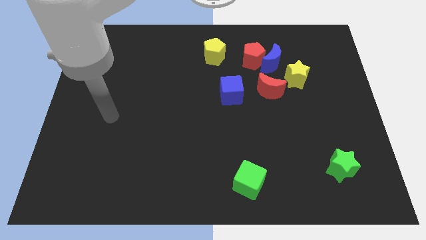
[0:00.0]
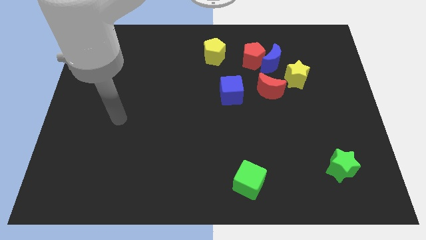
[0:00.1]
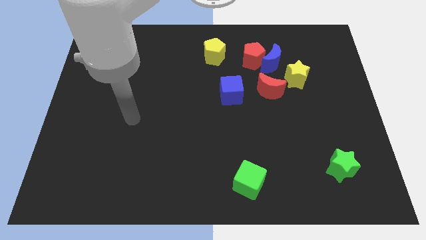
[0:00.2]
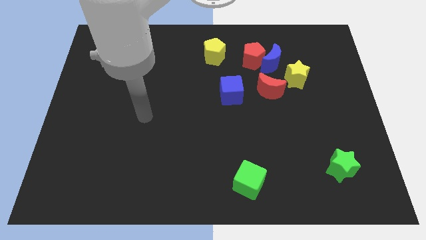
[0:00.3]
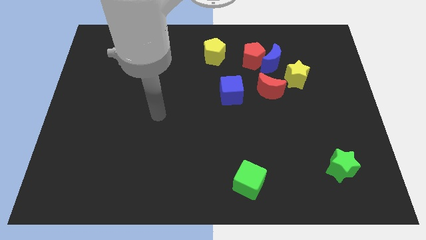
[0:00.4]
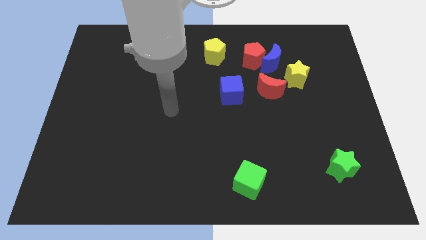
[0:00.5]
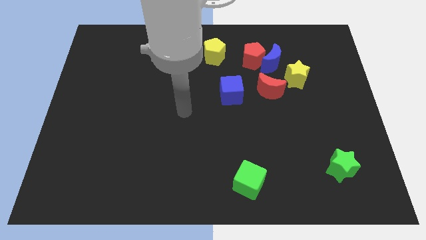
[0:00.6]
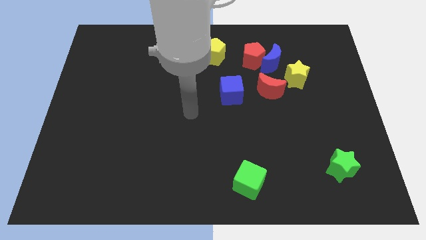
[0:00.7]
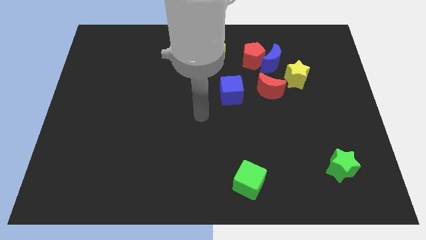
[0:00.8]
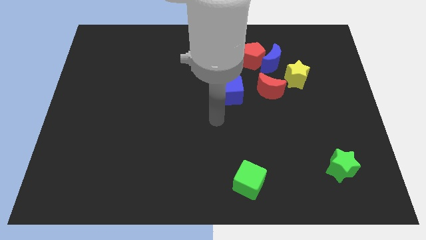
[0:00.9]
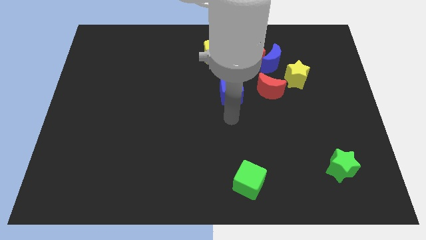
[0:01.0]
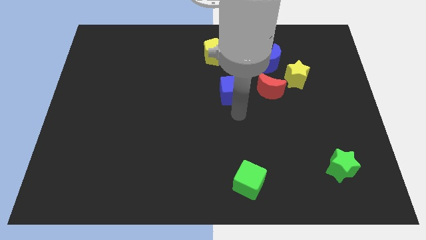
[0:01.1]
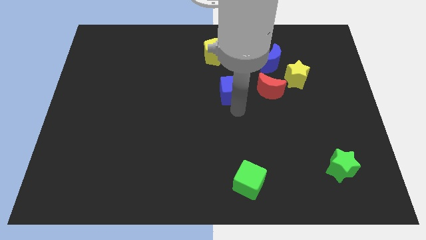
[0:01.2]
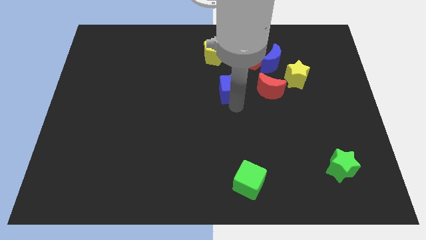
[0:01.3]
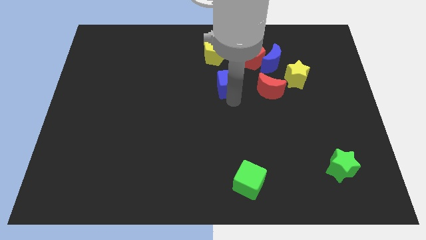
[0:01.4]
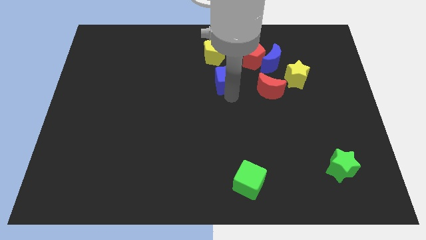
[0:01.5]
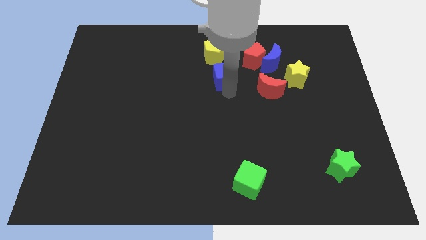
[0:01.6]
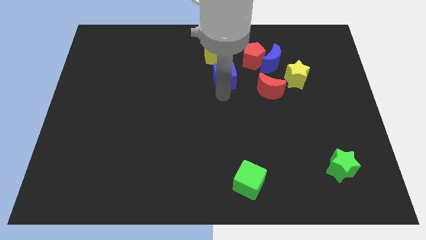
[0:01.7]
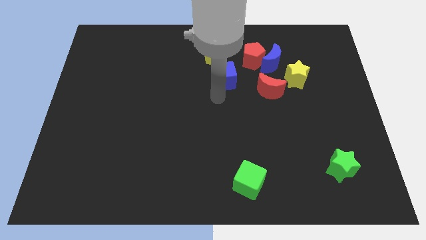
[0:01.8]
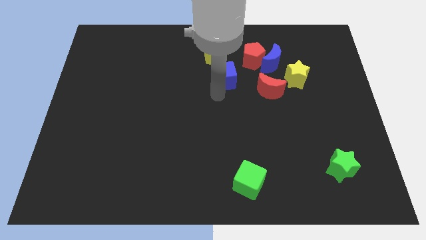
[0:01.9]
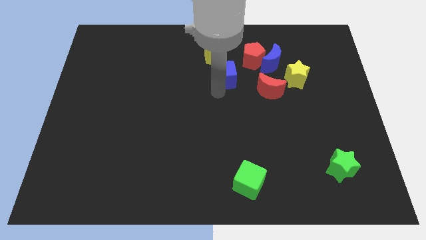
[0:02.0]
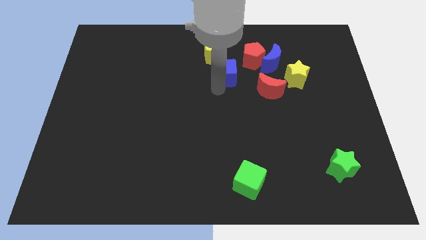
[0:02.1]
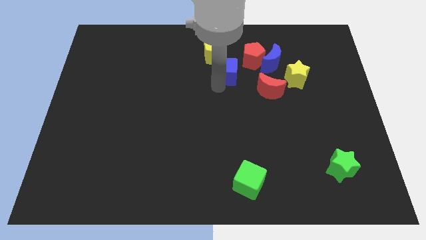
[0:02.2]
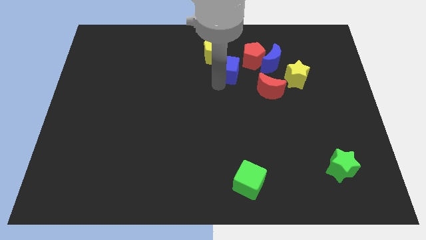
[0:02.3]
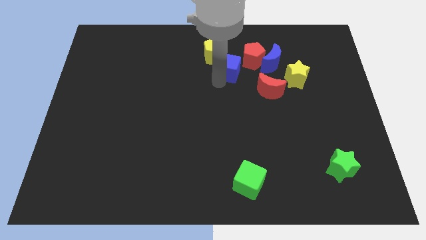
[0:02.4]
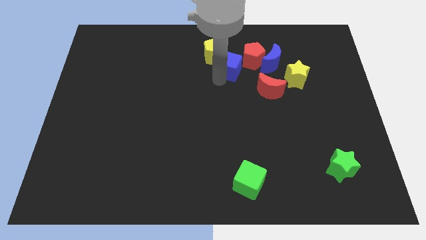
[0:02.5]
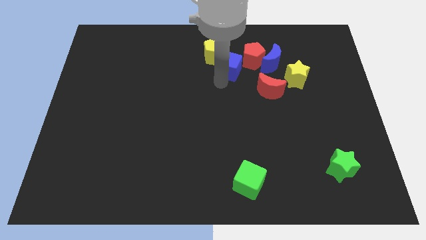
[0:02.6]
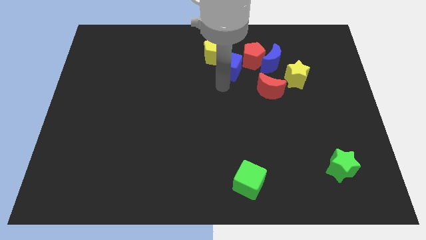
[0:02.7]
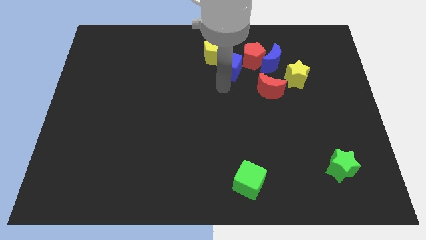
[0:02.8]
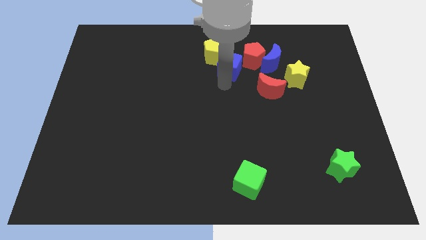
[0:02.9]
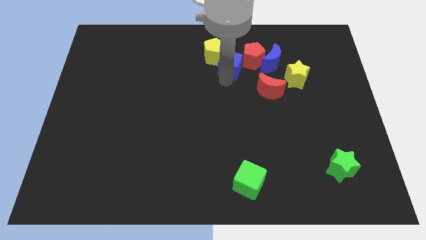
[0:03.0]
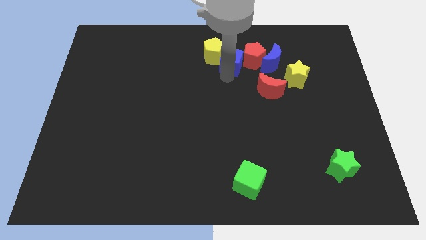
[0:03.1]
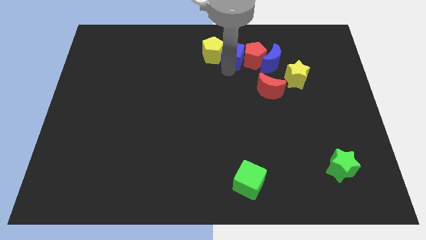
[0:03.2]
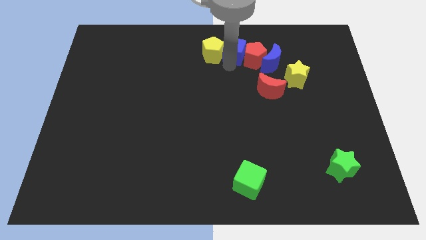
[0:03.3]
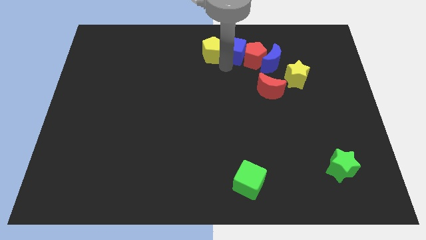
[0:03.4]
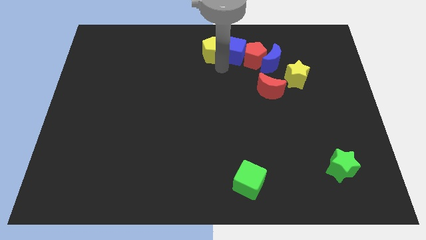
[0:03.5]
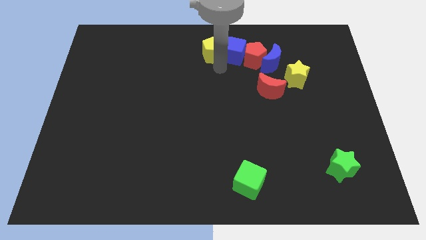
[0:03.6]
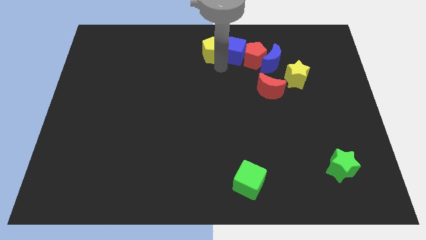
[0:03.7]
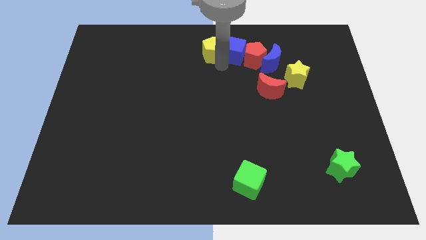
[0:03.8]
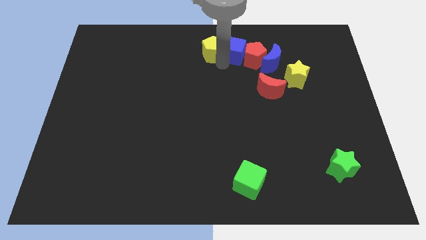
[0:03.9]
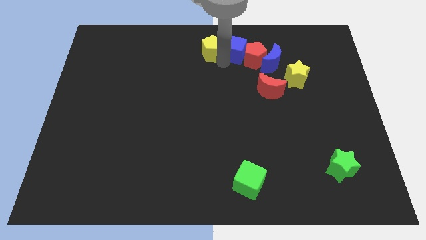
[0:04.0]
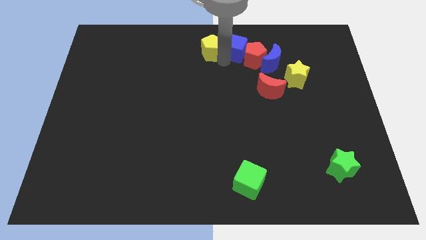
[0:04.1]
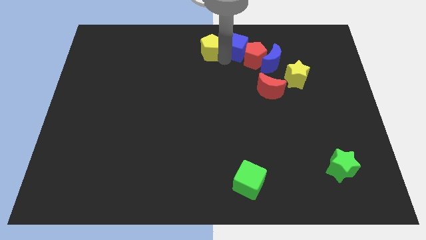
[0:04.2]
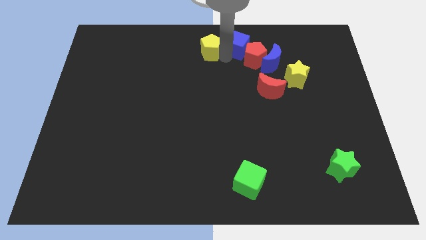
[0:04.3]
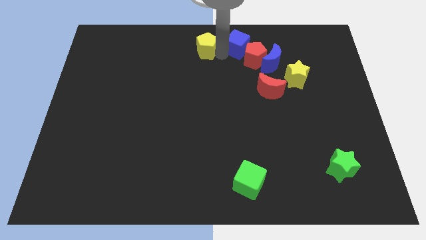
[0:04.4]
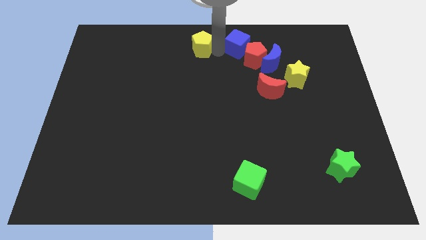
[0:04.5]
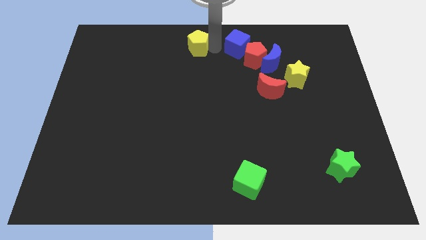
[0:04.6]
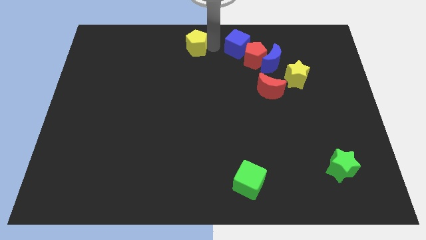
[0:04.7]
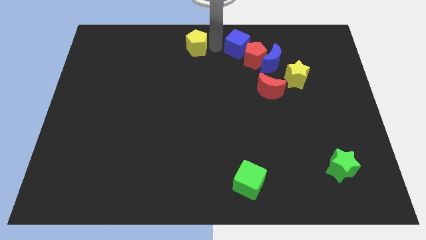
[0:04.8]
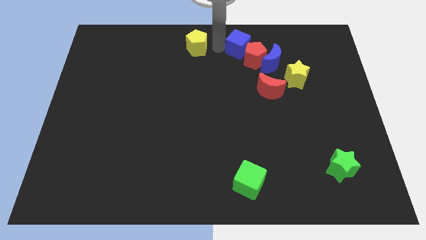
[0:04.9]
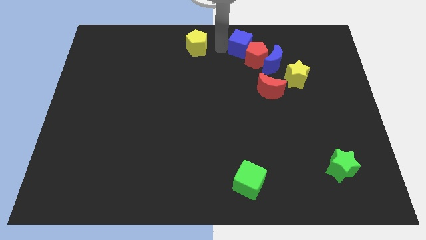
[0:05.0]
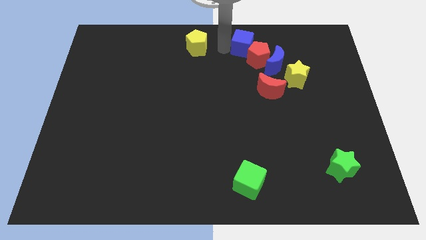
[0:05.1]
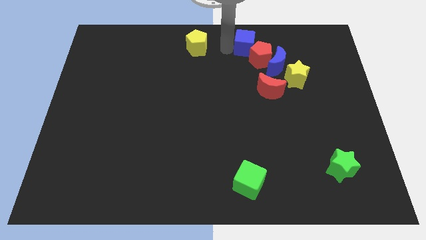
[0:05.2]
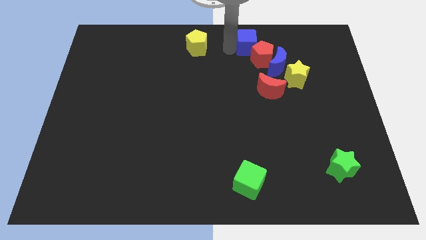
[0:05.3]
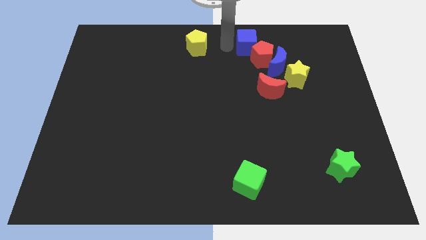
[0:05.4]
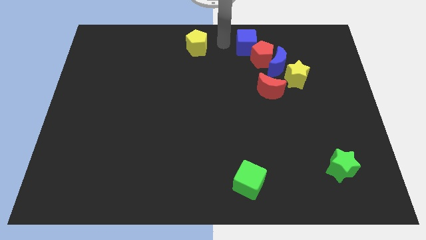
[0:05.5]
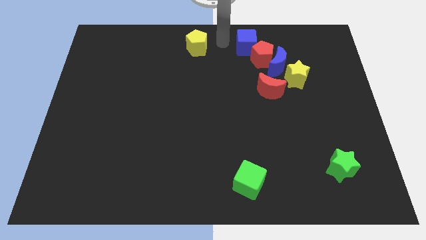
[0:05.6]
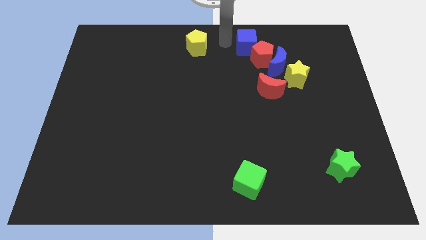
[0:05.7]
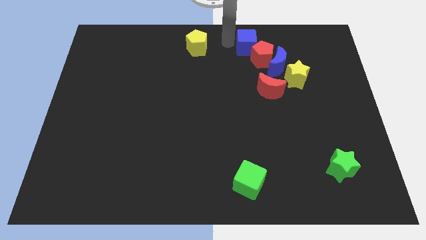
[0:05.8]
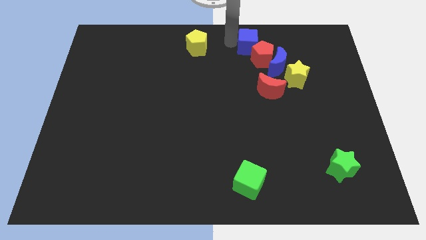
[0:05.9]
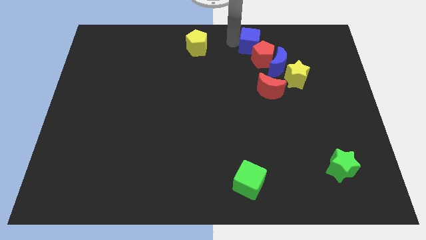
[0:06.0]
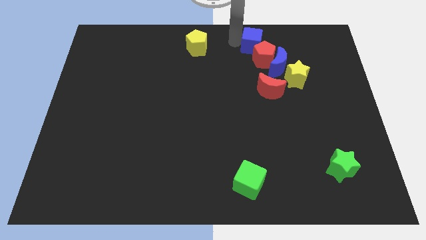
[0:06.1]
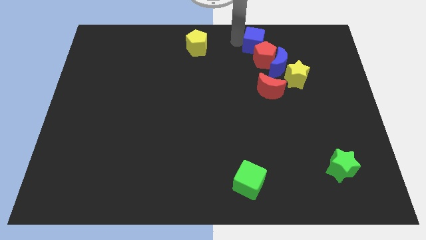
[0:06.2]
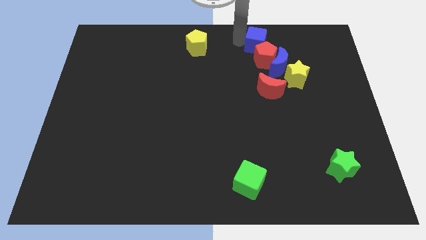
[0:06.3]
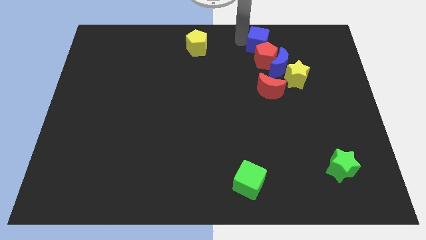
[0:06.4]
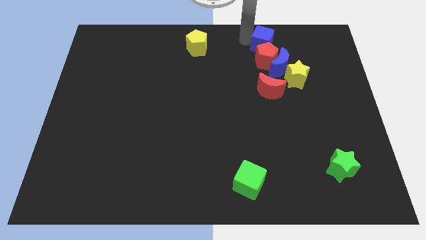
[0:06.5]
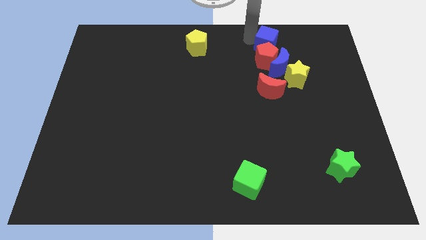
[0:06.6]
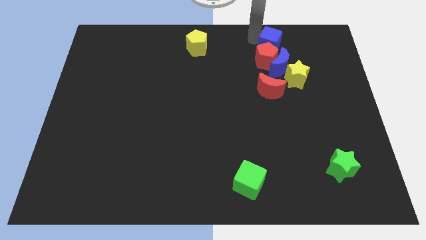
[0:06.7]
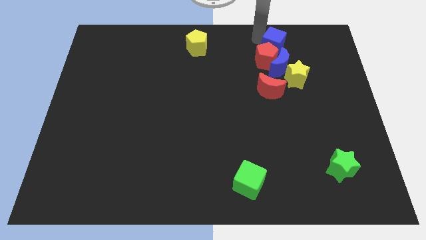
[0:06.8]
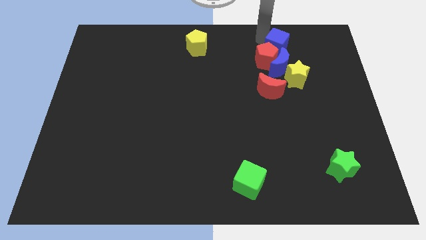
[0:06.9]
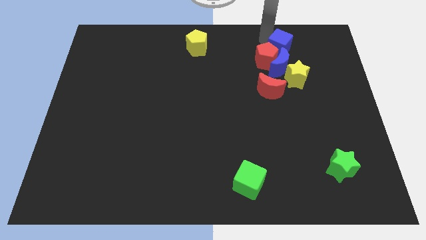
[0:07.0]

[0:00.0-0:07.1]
slide the blue cube right of the red pentagon
